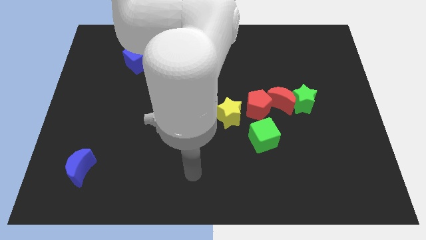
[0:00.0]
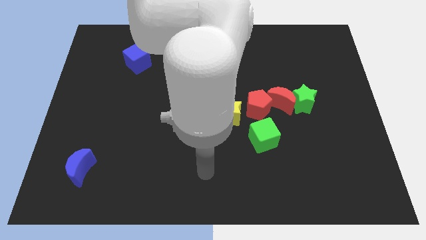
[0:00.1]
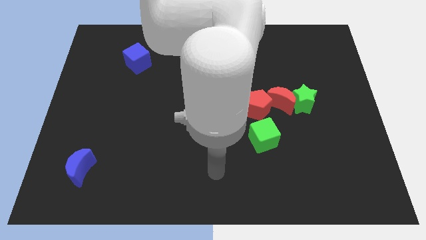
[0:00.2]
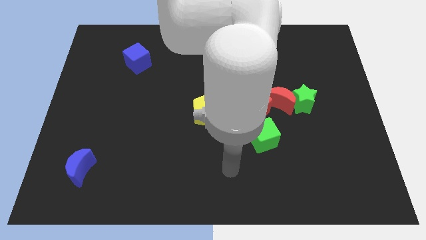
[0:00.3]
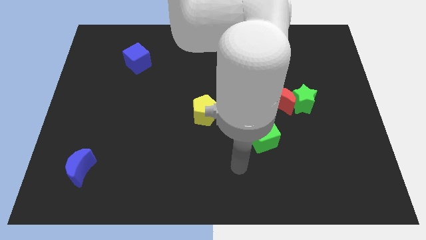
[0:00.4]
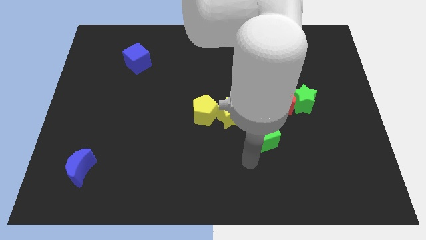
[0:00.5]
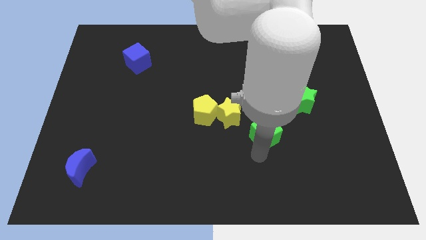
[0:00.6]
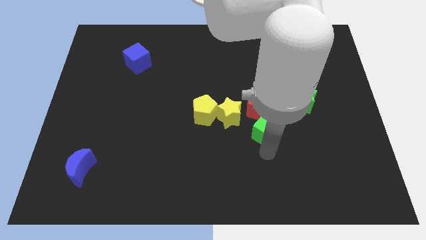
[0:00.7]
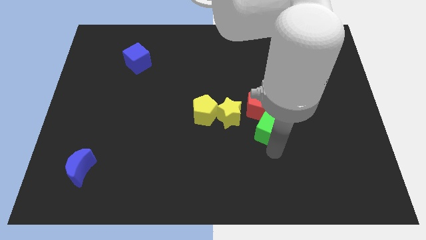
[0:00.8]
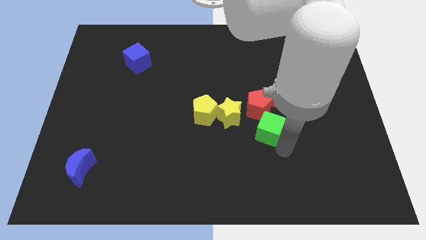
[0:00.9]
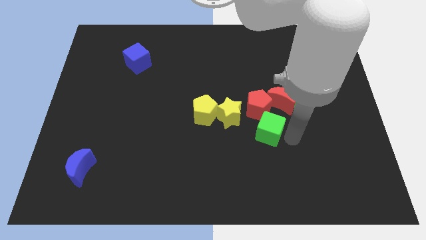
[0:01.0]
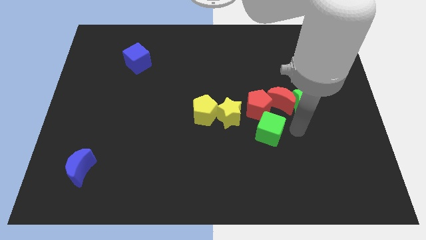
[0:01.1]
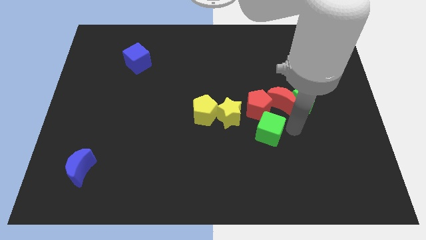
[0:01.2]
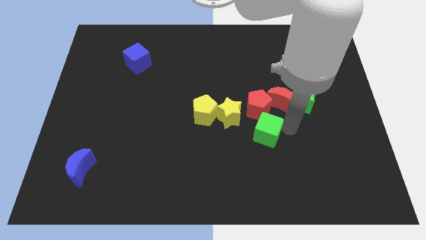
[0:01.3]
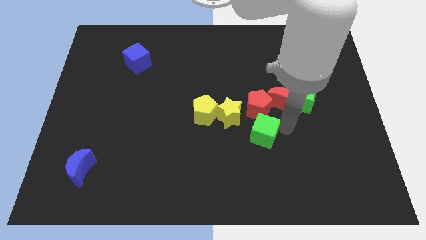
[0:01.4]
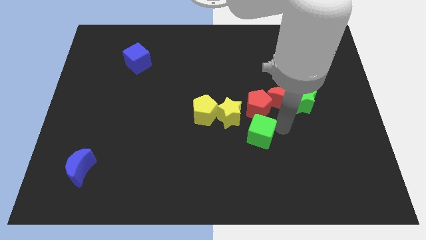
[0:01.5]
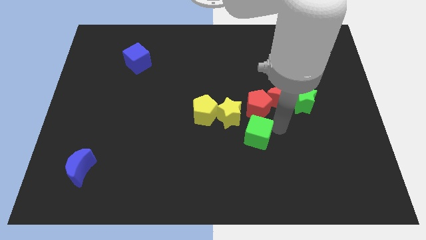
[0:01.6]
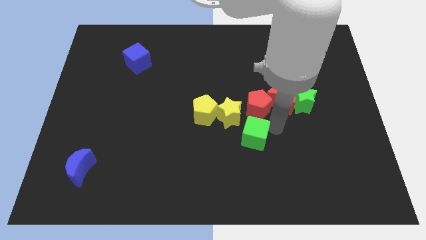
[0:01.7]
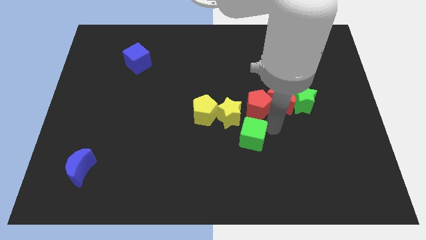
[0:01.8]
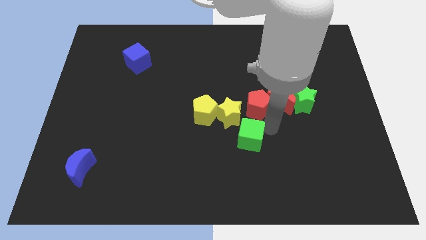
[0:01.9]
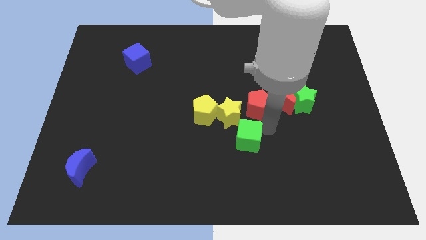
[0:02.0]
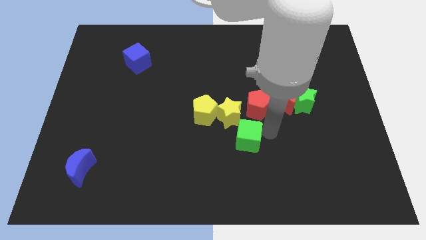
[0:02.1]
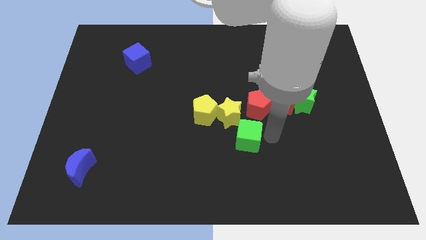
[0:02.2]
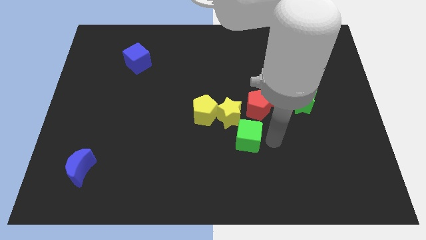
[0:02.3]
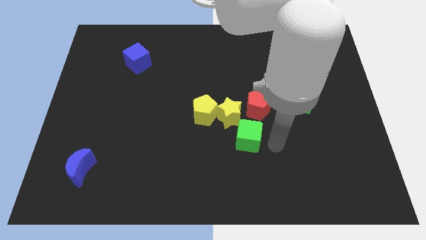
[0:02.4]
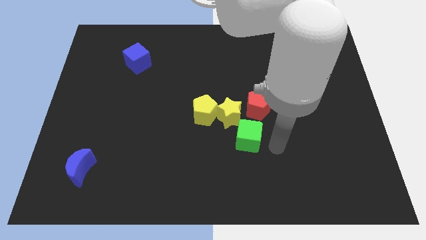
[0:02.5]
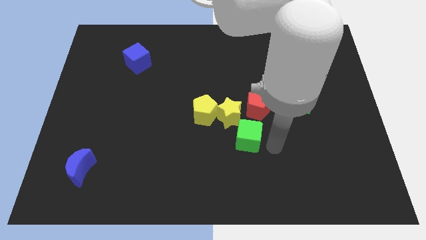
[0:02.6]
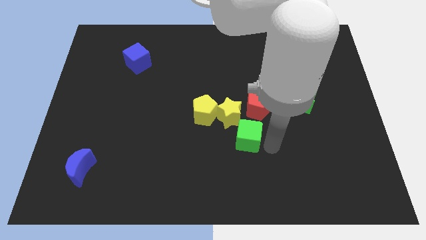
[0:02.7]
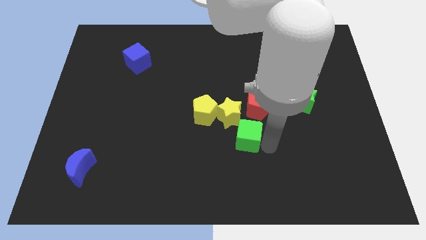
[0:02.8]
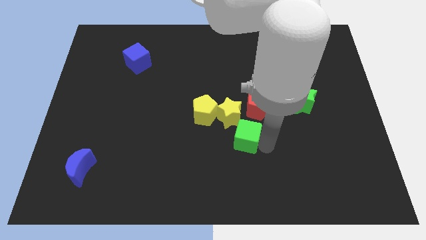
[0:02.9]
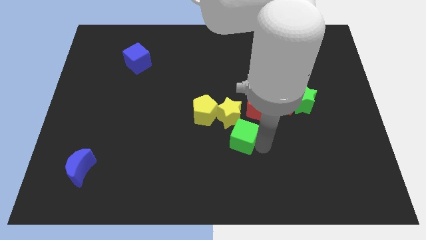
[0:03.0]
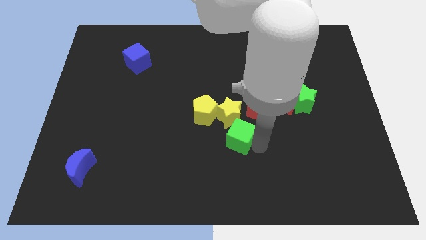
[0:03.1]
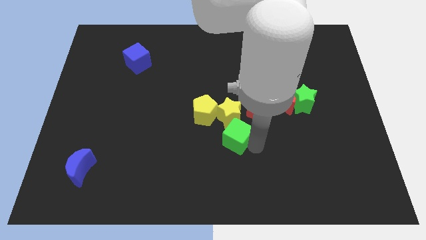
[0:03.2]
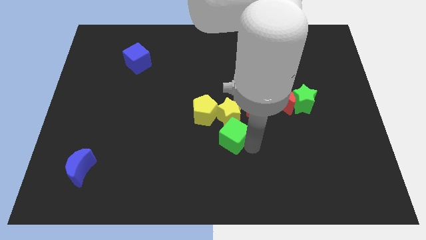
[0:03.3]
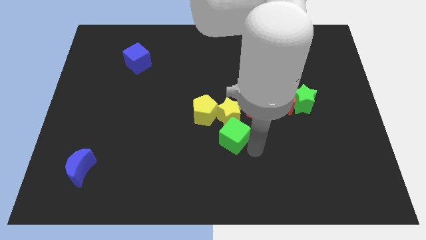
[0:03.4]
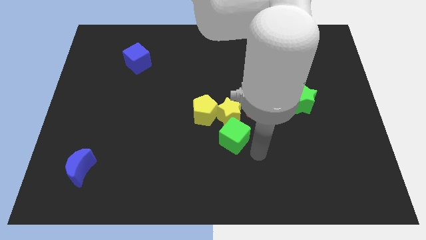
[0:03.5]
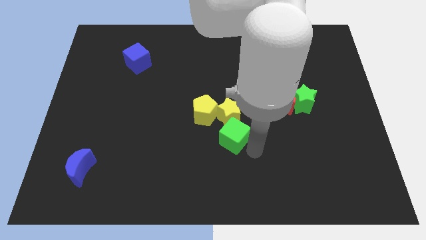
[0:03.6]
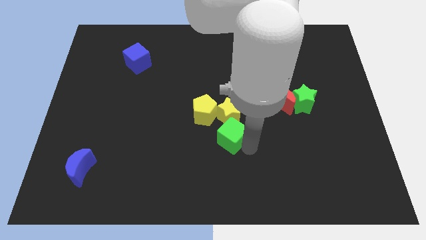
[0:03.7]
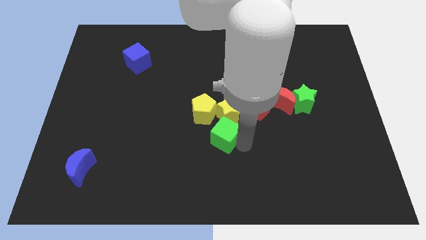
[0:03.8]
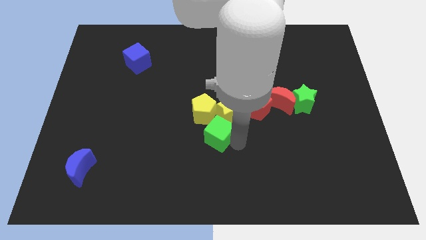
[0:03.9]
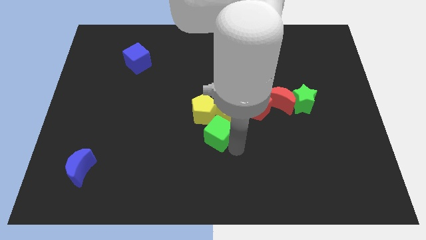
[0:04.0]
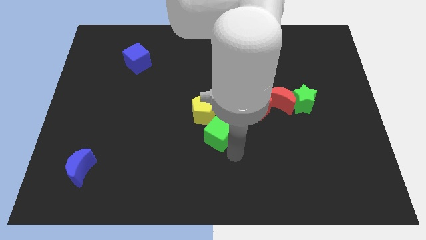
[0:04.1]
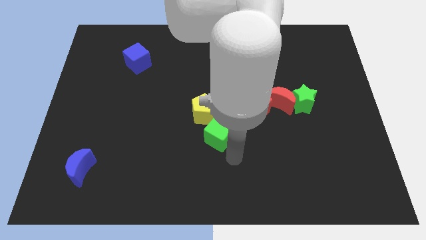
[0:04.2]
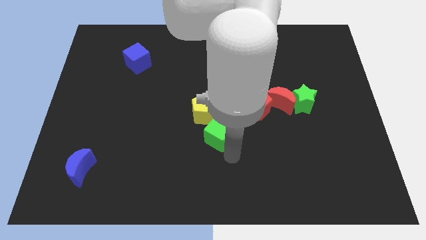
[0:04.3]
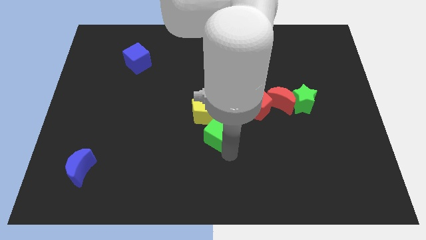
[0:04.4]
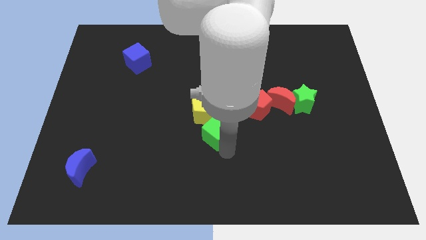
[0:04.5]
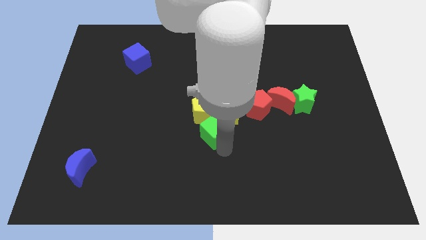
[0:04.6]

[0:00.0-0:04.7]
move the green cube towards the yellow pentagon

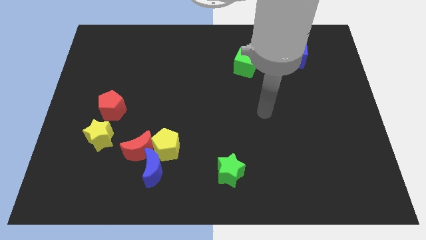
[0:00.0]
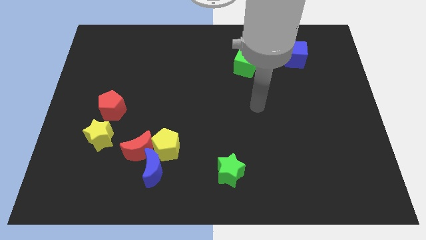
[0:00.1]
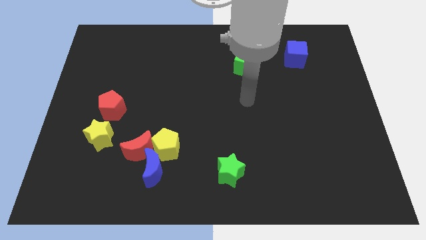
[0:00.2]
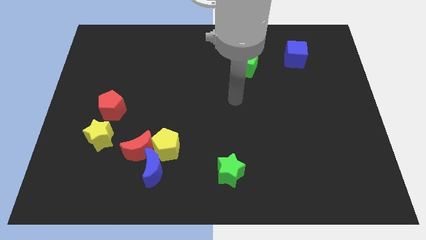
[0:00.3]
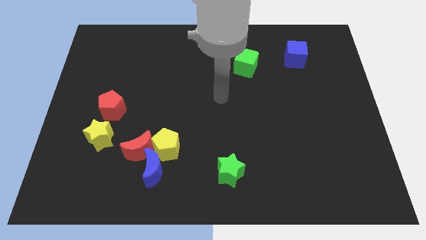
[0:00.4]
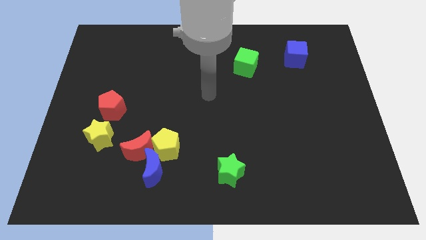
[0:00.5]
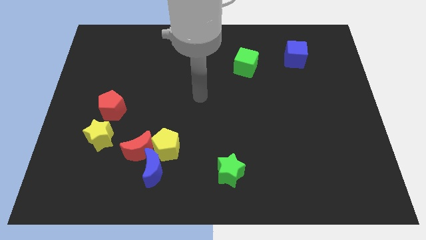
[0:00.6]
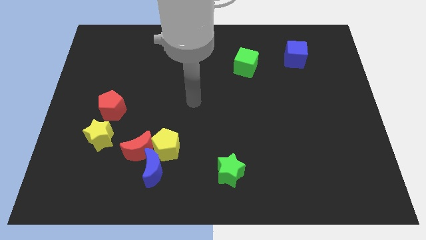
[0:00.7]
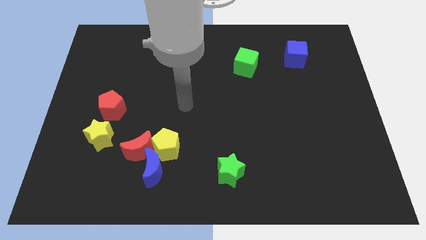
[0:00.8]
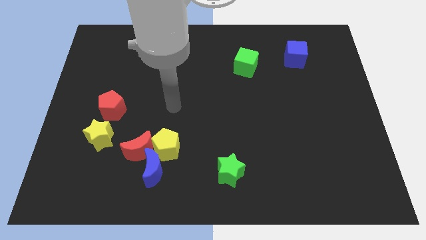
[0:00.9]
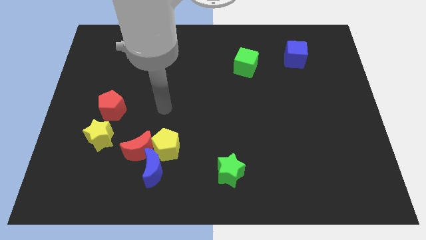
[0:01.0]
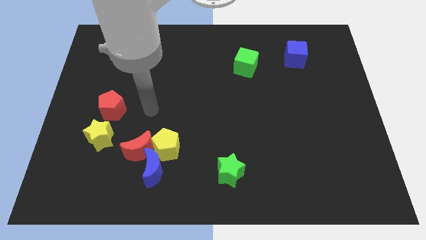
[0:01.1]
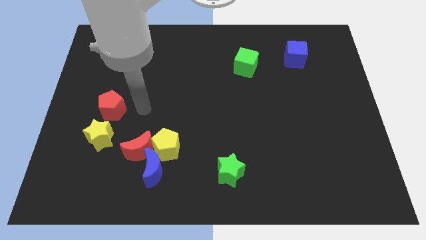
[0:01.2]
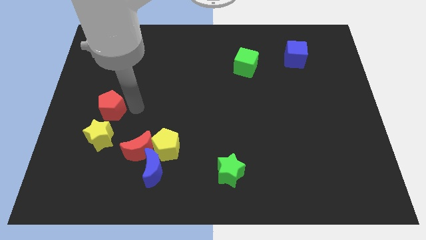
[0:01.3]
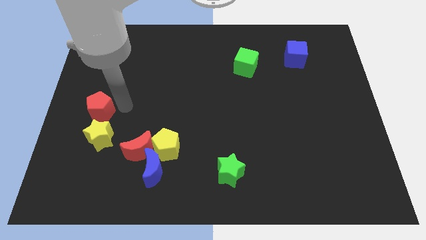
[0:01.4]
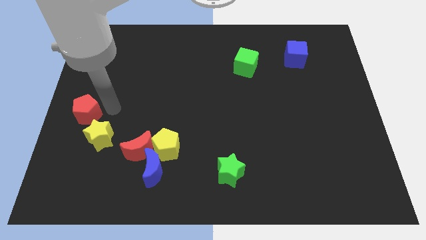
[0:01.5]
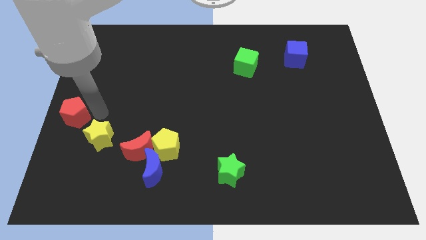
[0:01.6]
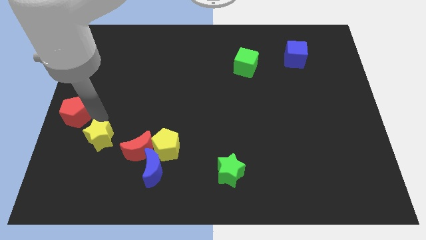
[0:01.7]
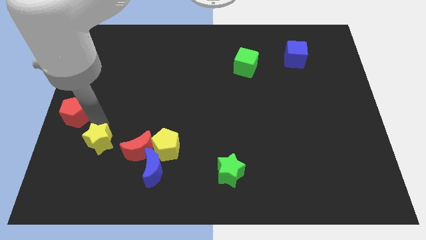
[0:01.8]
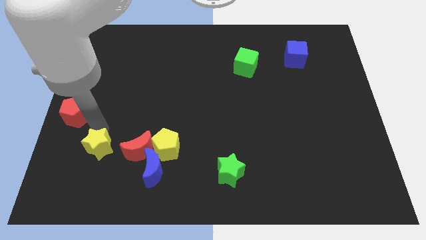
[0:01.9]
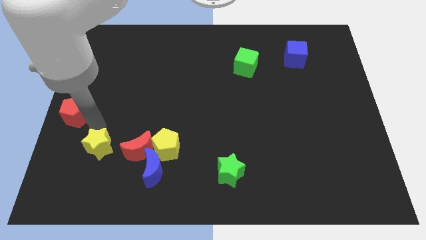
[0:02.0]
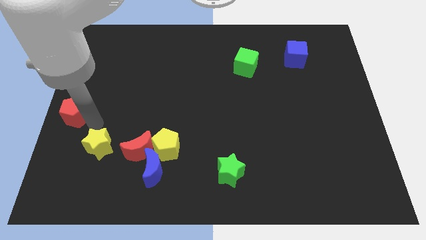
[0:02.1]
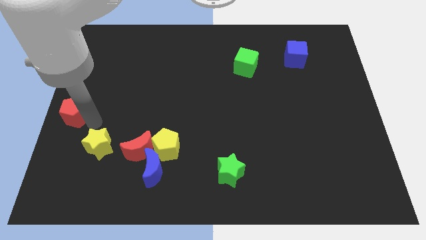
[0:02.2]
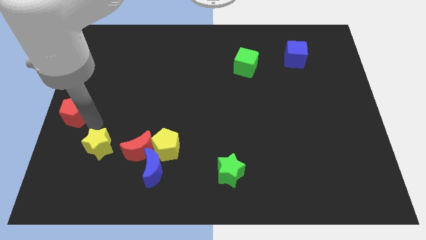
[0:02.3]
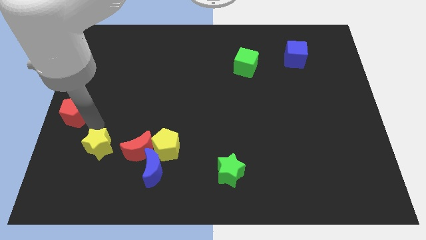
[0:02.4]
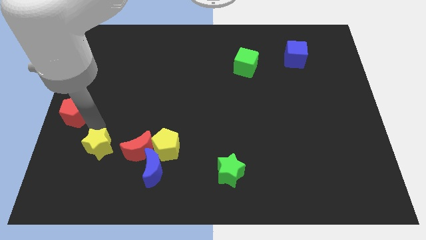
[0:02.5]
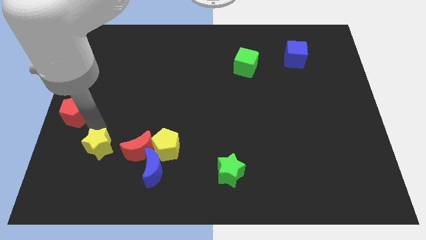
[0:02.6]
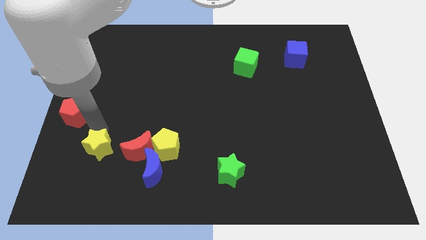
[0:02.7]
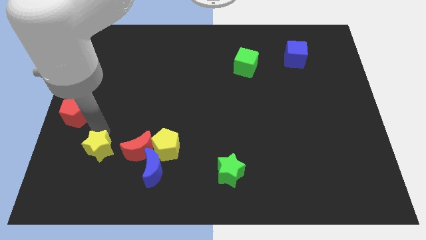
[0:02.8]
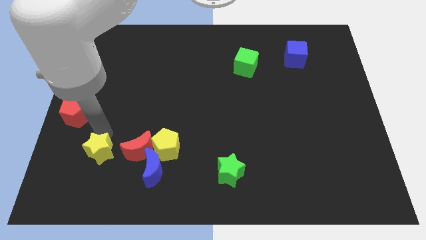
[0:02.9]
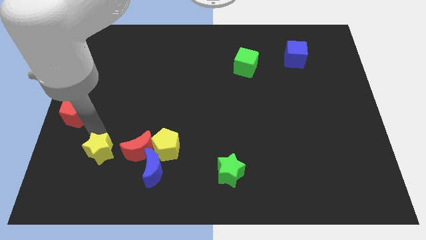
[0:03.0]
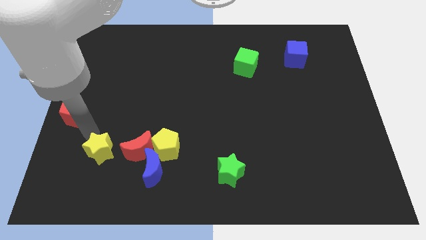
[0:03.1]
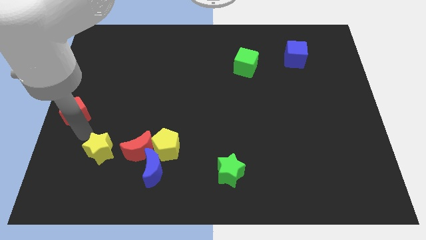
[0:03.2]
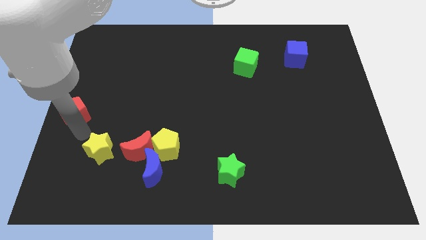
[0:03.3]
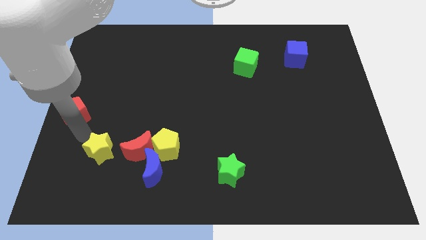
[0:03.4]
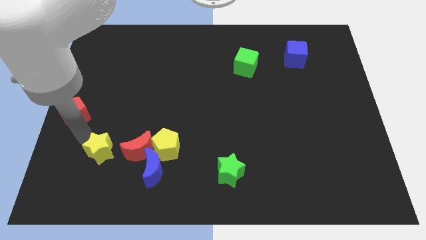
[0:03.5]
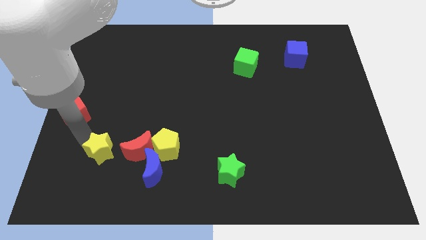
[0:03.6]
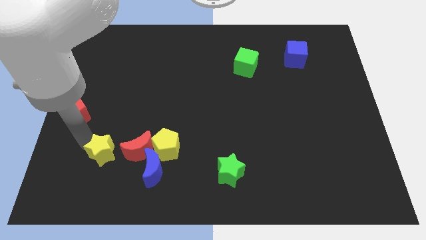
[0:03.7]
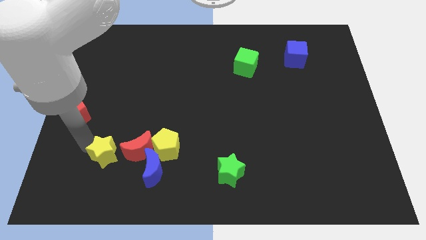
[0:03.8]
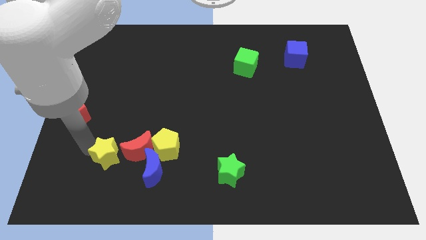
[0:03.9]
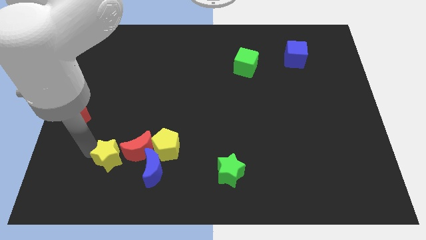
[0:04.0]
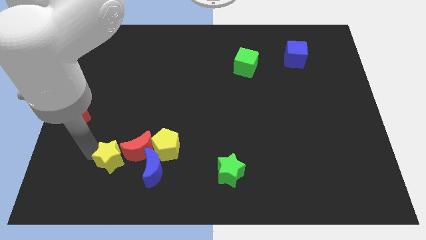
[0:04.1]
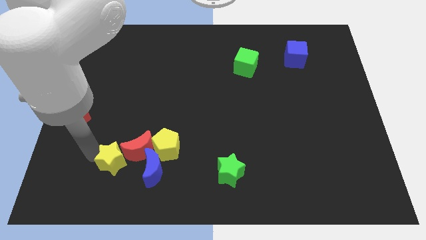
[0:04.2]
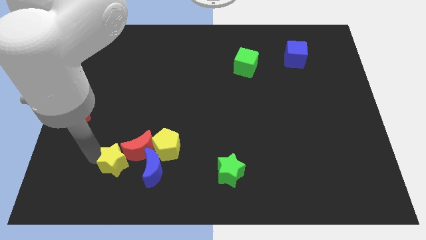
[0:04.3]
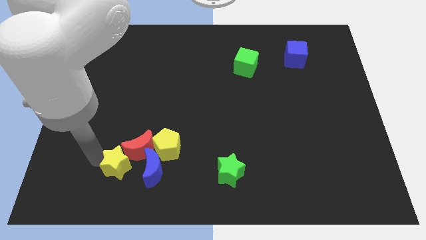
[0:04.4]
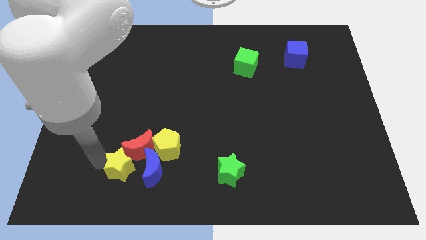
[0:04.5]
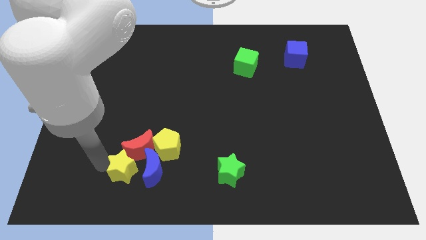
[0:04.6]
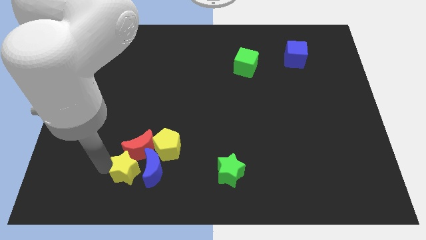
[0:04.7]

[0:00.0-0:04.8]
slide the yellow star close to the blue moon
